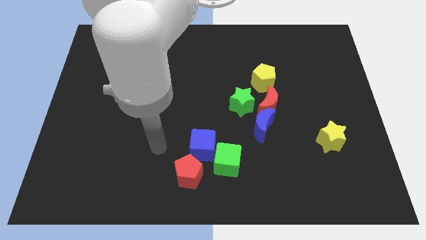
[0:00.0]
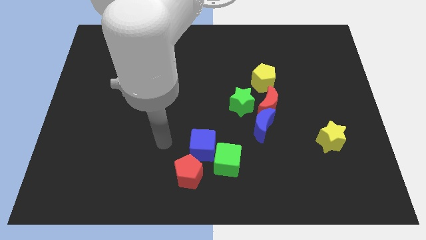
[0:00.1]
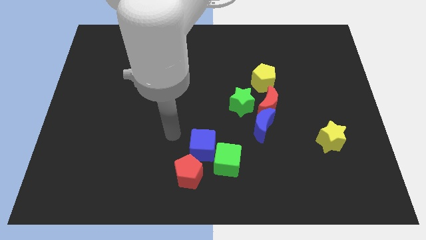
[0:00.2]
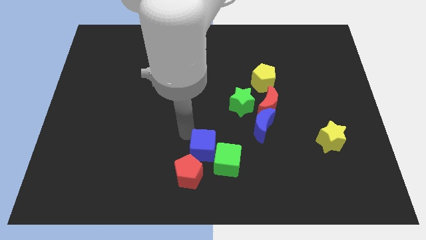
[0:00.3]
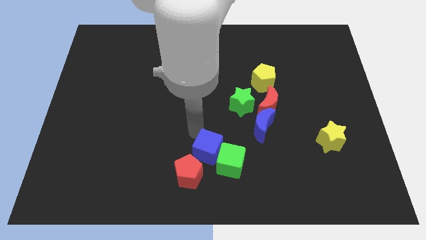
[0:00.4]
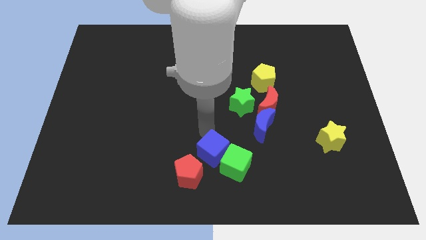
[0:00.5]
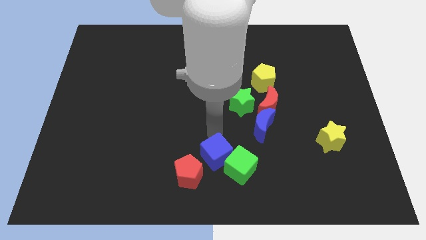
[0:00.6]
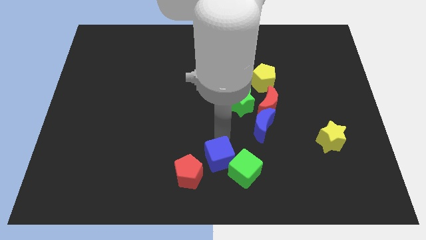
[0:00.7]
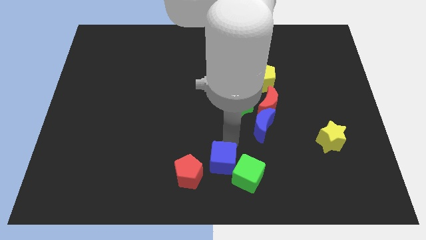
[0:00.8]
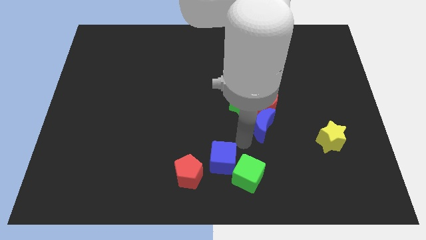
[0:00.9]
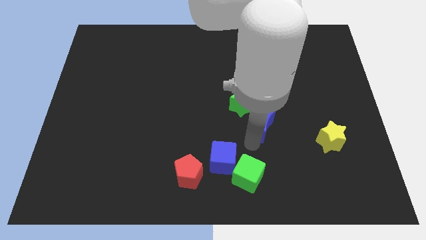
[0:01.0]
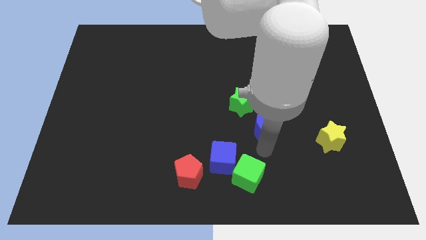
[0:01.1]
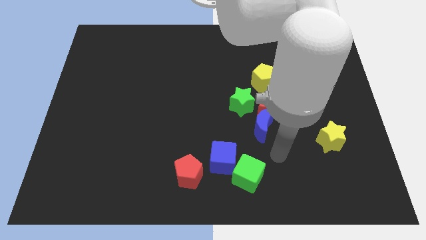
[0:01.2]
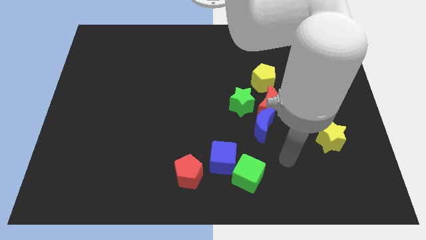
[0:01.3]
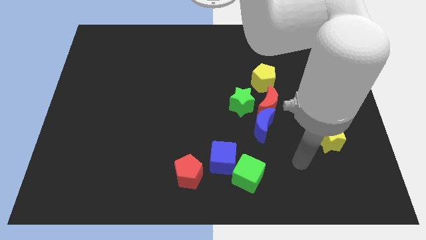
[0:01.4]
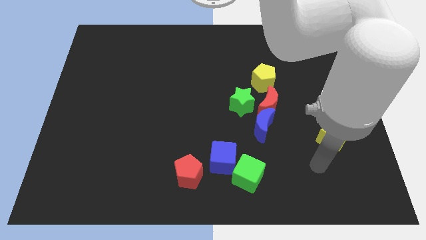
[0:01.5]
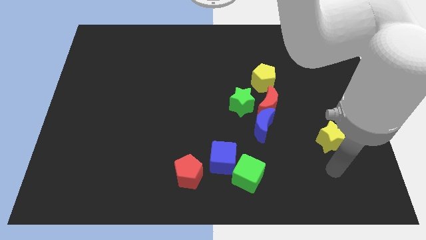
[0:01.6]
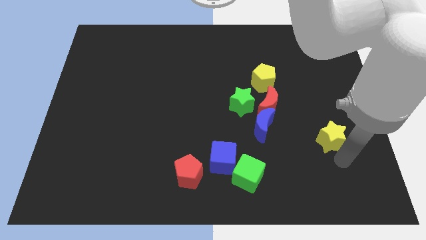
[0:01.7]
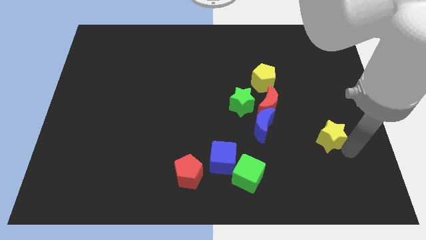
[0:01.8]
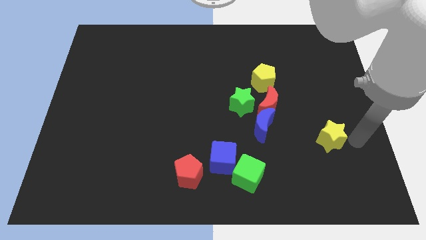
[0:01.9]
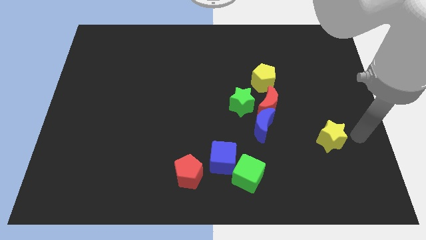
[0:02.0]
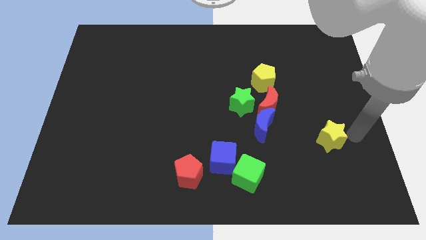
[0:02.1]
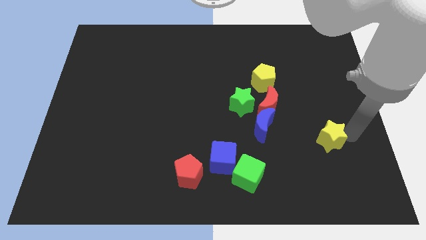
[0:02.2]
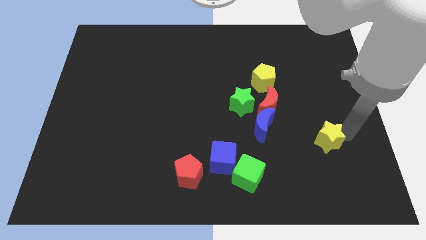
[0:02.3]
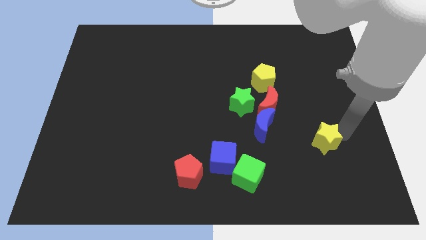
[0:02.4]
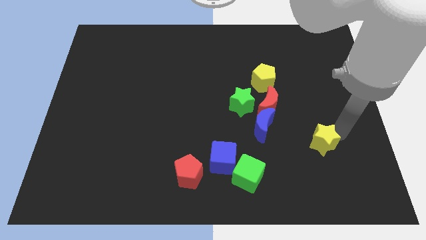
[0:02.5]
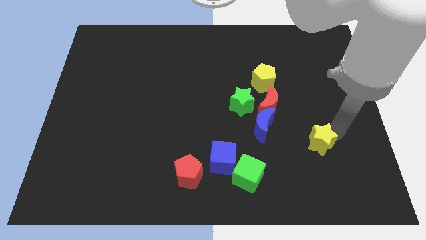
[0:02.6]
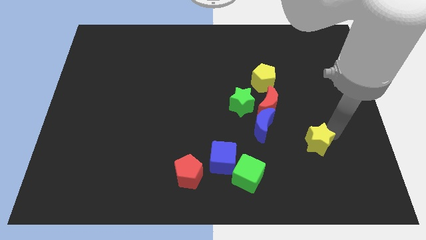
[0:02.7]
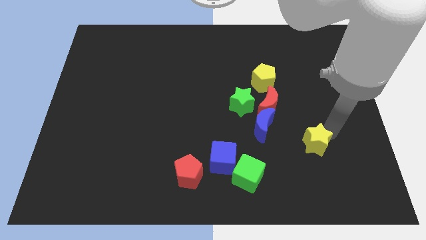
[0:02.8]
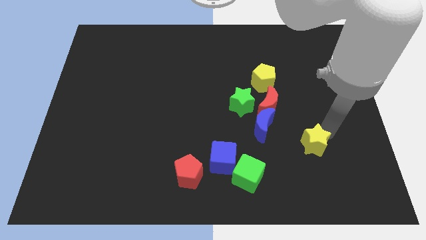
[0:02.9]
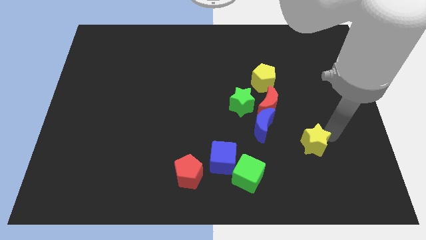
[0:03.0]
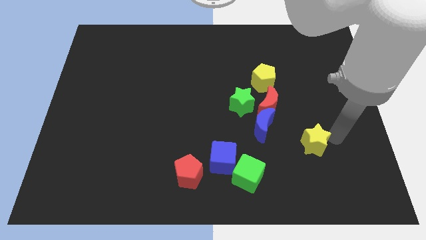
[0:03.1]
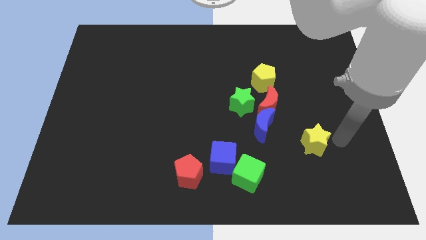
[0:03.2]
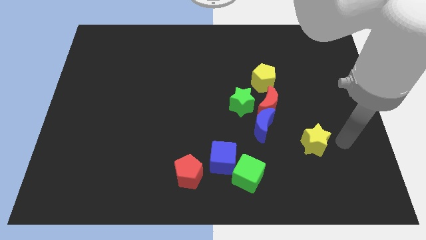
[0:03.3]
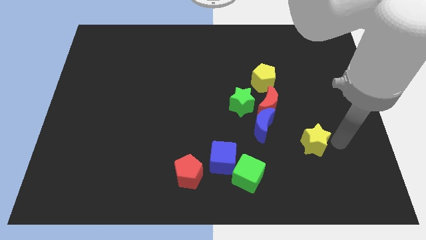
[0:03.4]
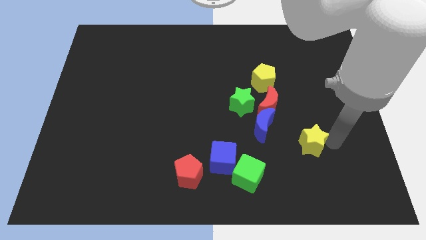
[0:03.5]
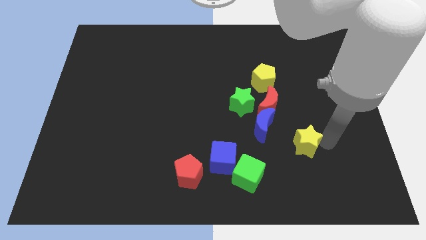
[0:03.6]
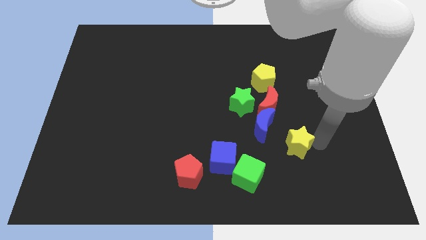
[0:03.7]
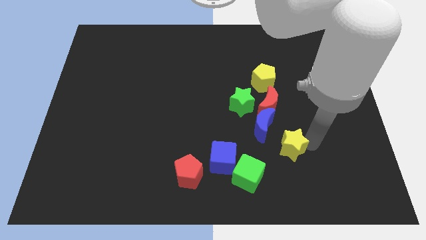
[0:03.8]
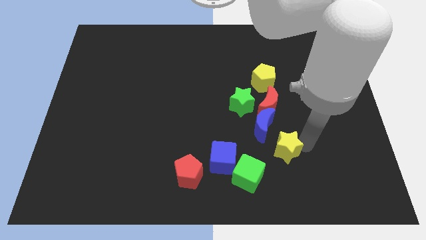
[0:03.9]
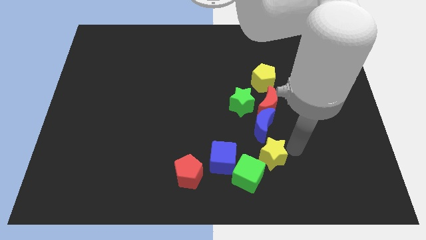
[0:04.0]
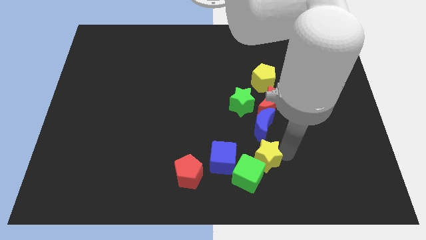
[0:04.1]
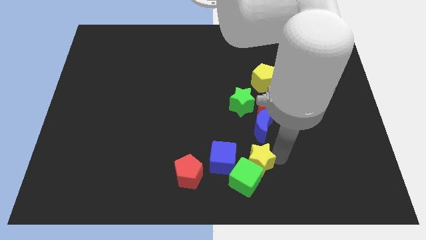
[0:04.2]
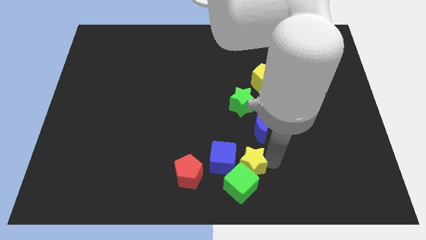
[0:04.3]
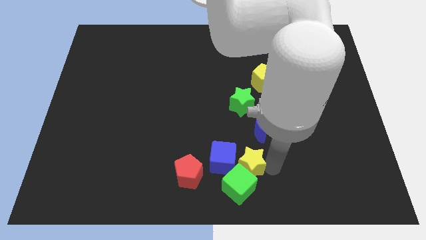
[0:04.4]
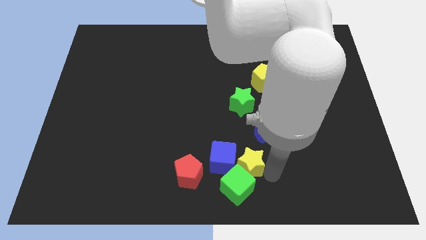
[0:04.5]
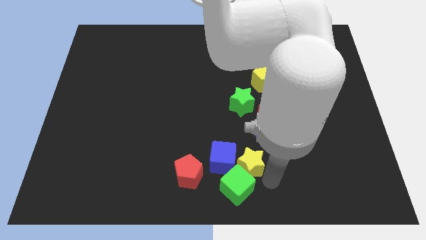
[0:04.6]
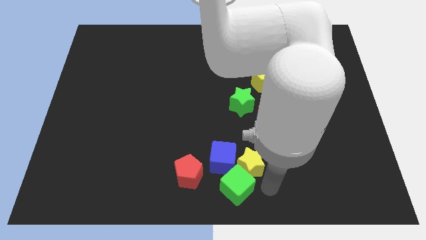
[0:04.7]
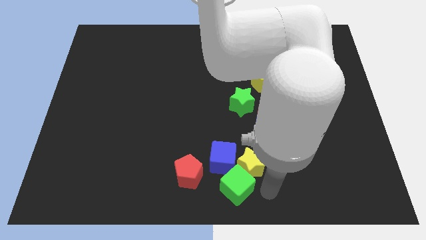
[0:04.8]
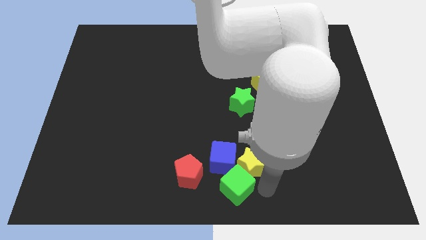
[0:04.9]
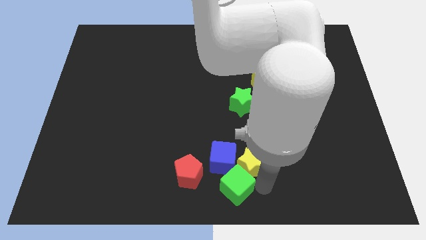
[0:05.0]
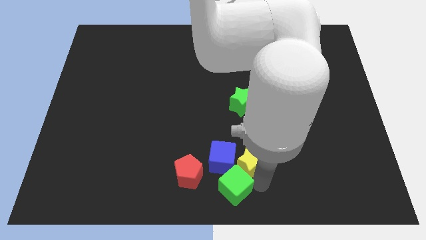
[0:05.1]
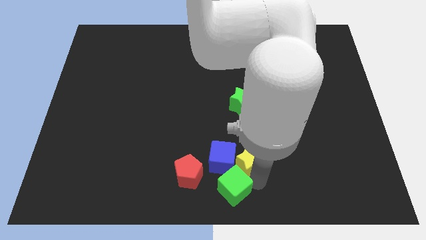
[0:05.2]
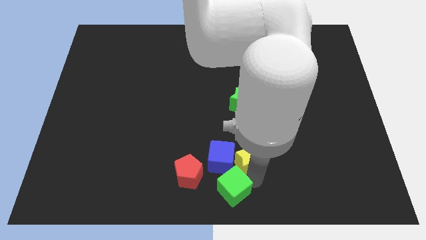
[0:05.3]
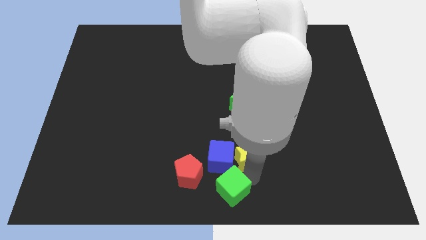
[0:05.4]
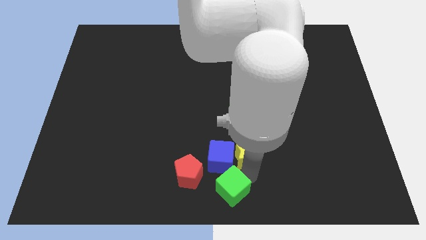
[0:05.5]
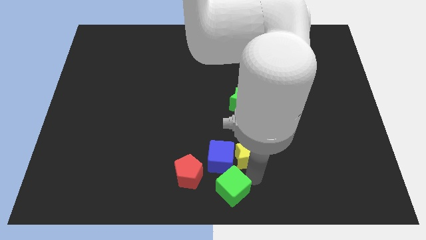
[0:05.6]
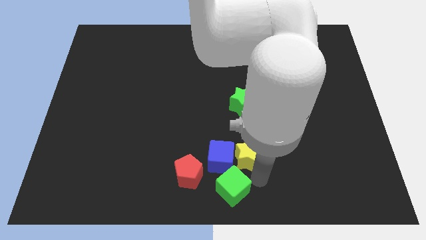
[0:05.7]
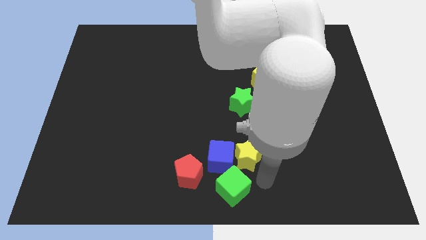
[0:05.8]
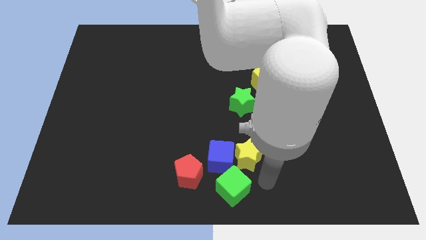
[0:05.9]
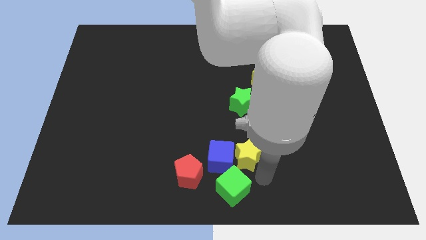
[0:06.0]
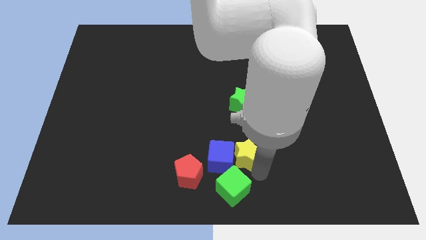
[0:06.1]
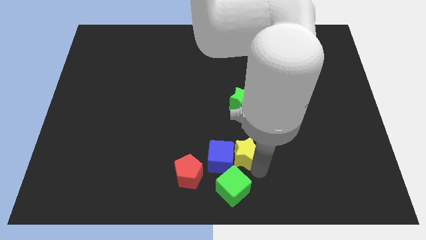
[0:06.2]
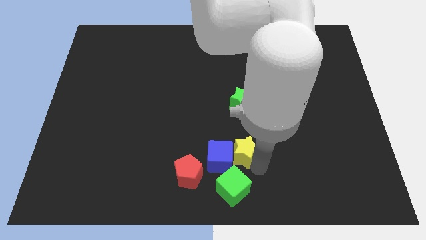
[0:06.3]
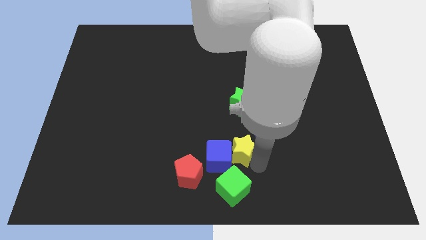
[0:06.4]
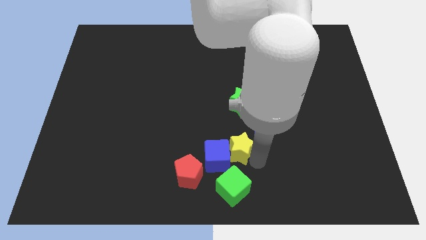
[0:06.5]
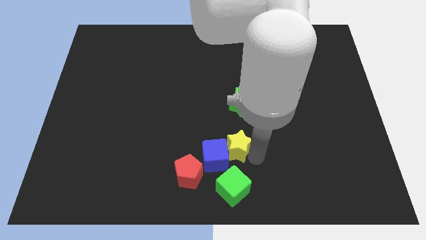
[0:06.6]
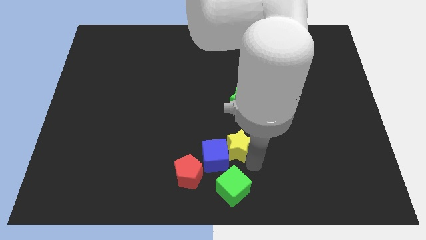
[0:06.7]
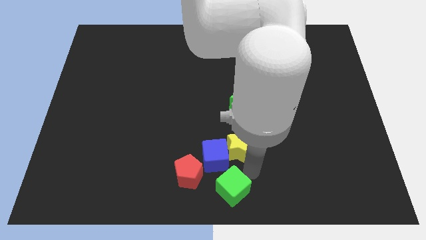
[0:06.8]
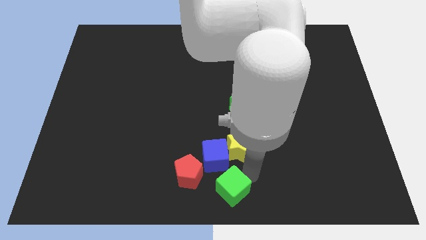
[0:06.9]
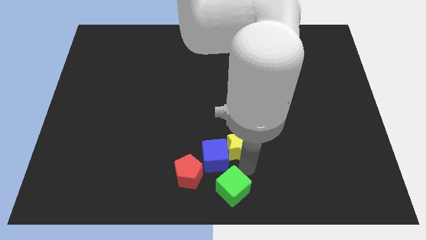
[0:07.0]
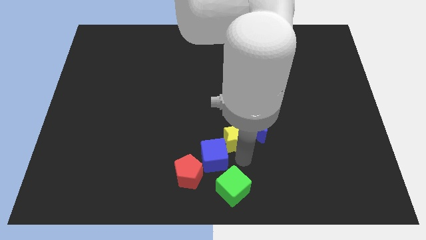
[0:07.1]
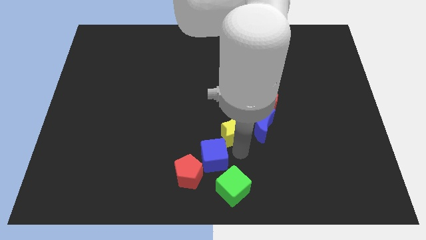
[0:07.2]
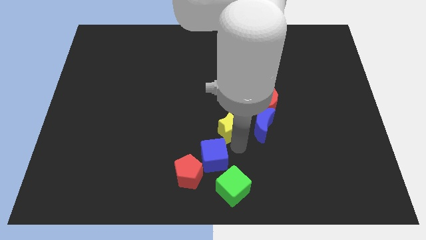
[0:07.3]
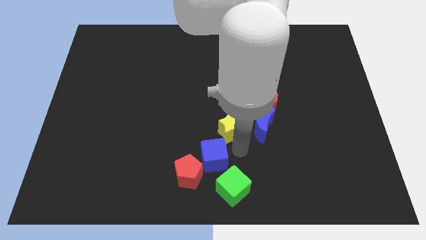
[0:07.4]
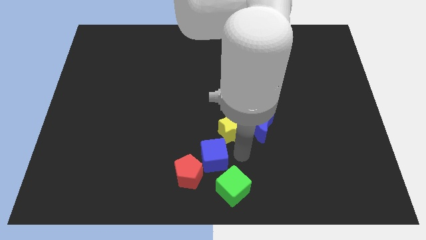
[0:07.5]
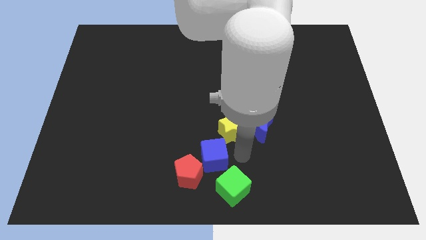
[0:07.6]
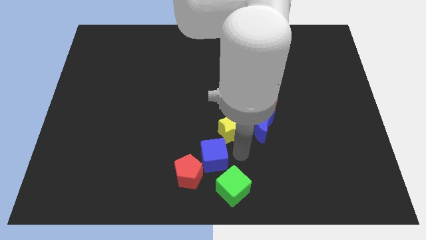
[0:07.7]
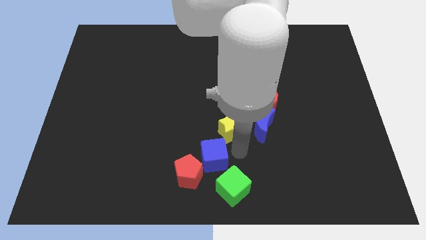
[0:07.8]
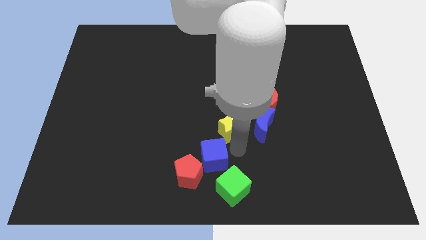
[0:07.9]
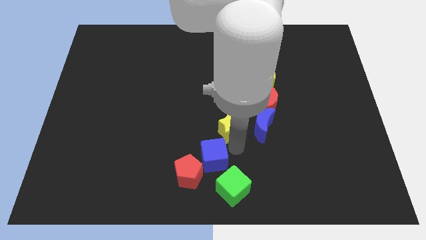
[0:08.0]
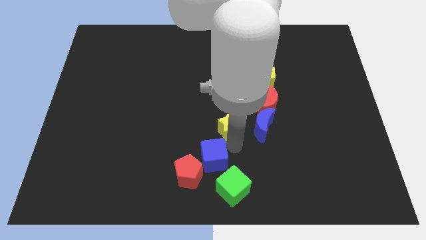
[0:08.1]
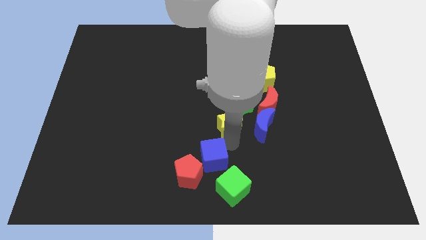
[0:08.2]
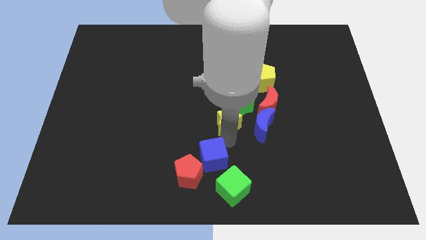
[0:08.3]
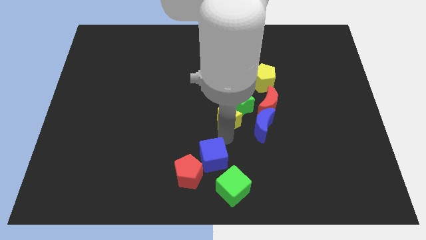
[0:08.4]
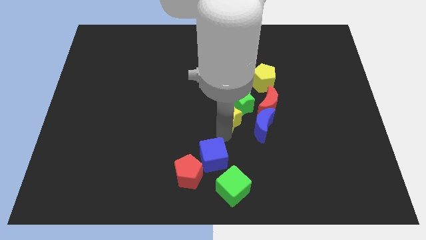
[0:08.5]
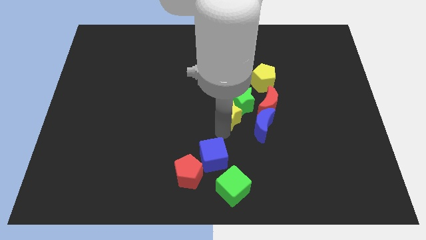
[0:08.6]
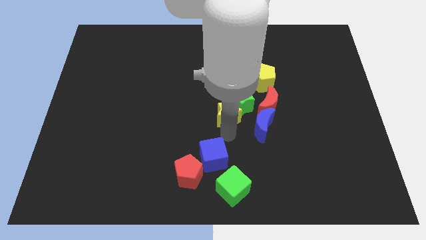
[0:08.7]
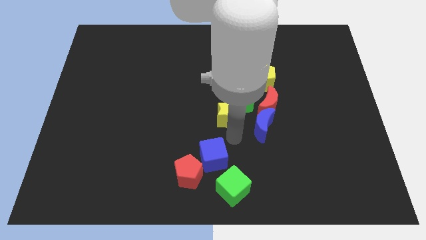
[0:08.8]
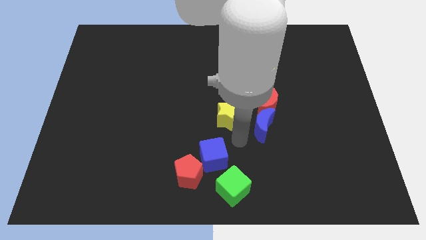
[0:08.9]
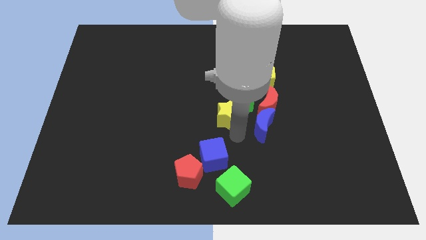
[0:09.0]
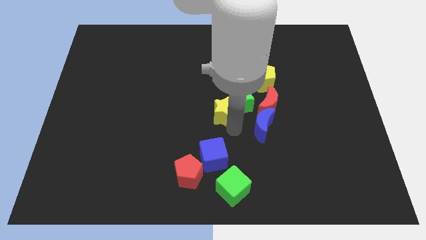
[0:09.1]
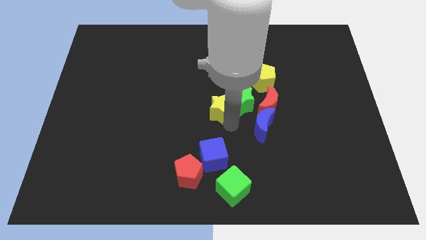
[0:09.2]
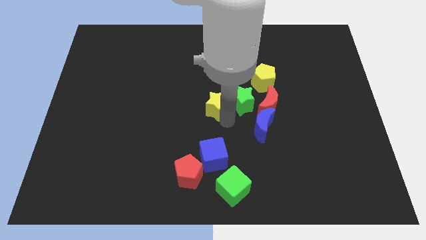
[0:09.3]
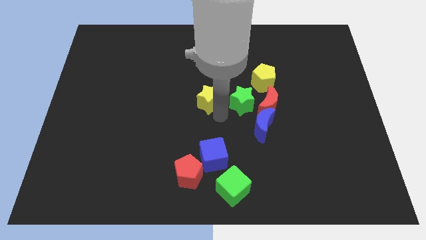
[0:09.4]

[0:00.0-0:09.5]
slide the yellow star upwards and to the left
